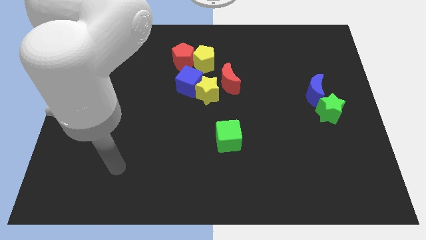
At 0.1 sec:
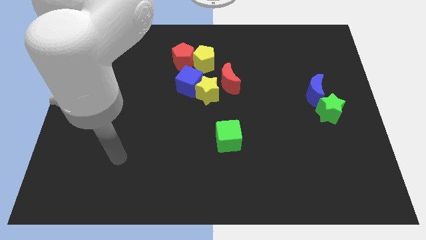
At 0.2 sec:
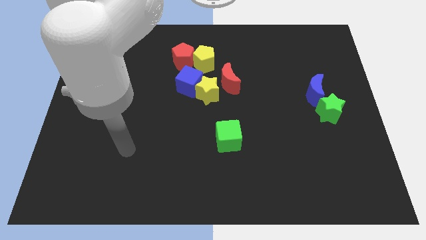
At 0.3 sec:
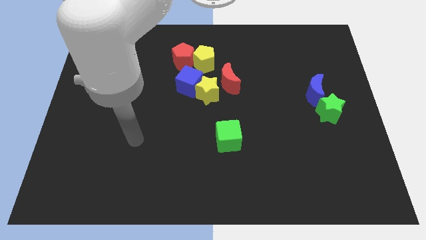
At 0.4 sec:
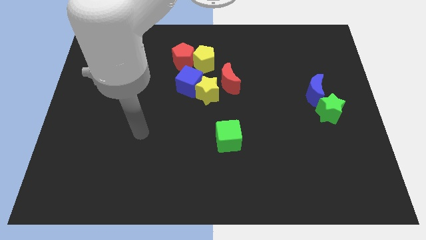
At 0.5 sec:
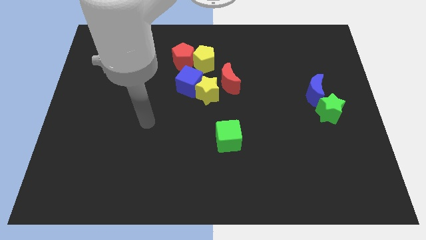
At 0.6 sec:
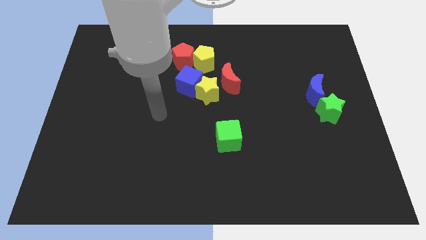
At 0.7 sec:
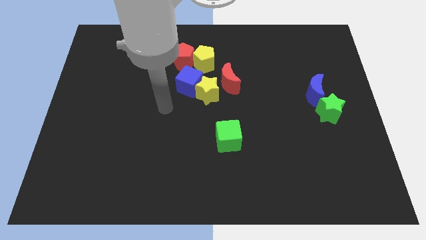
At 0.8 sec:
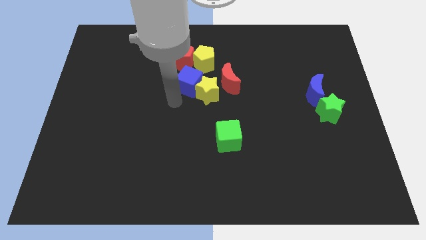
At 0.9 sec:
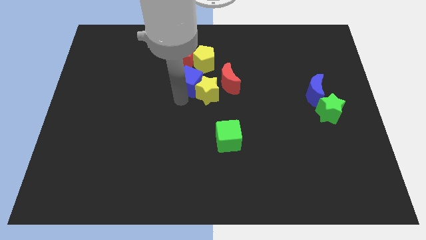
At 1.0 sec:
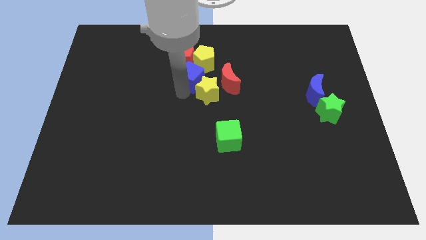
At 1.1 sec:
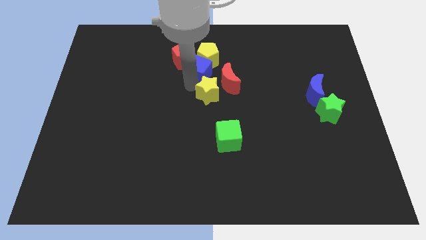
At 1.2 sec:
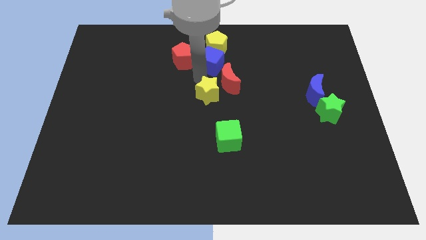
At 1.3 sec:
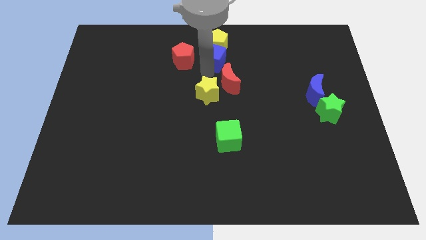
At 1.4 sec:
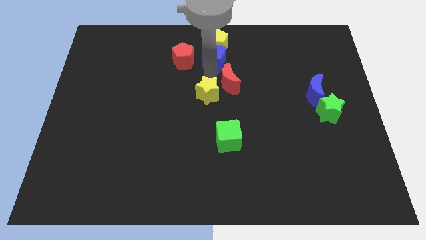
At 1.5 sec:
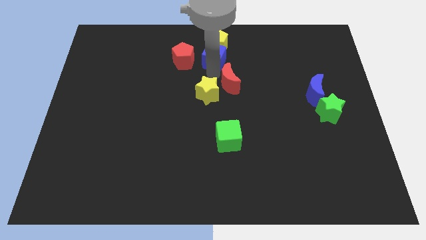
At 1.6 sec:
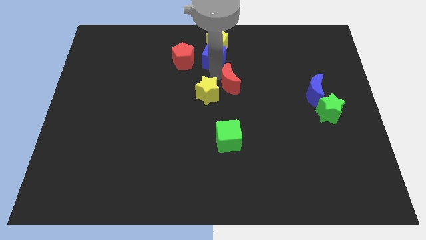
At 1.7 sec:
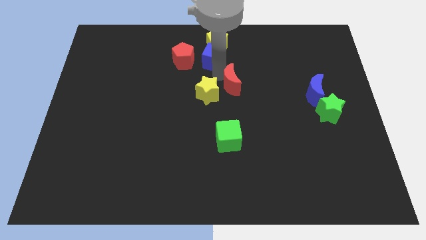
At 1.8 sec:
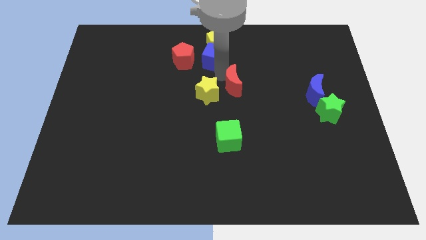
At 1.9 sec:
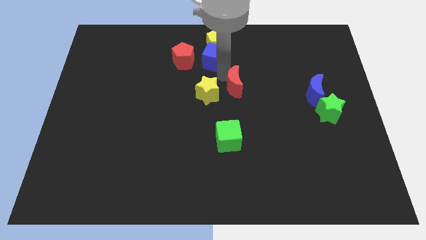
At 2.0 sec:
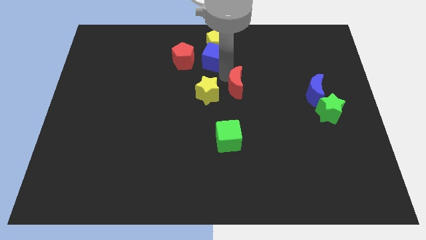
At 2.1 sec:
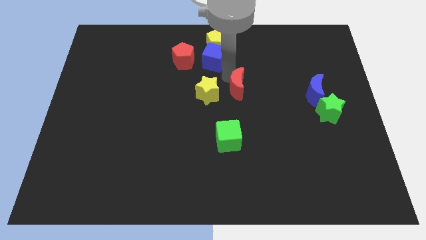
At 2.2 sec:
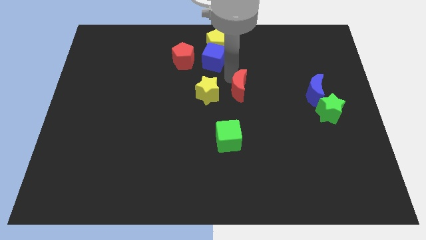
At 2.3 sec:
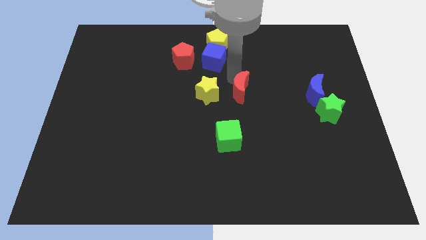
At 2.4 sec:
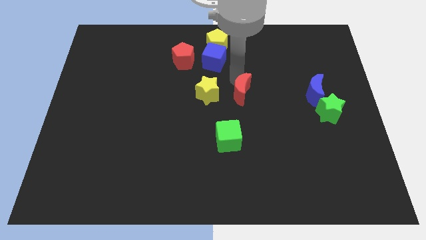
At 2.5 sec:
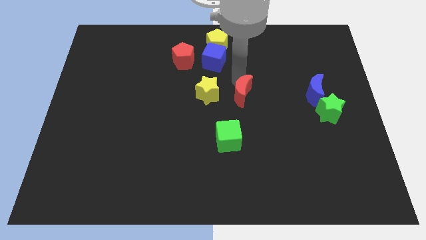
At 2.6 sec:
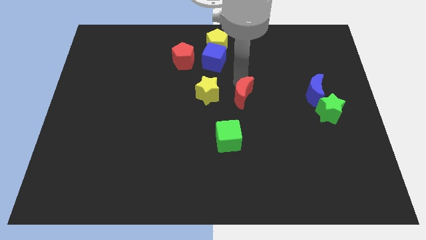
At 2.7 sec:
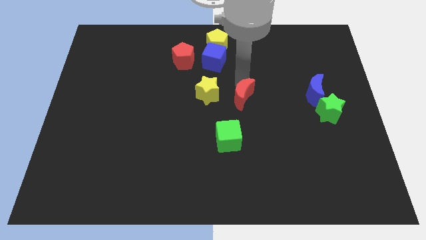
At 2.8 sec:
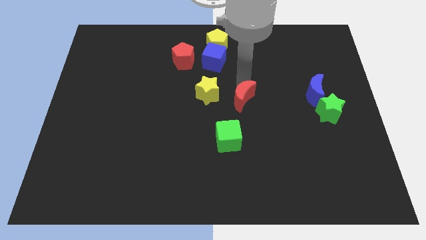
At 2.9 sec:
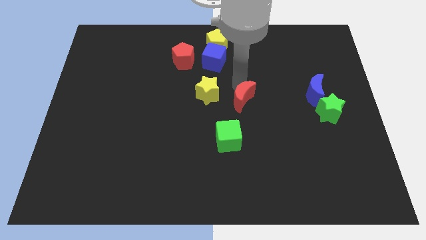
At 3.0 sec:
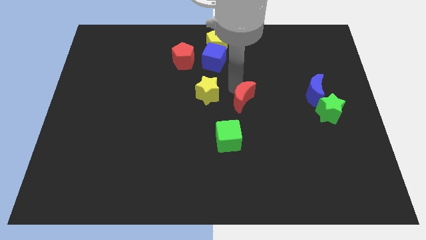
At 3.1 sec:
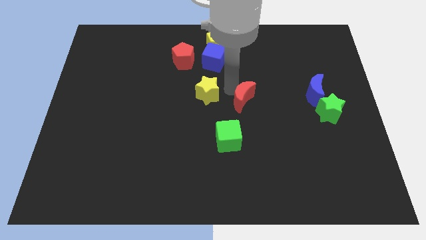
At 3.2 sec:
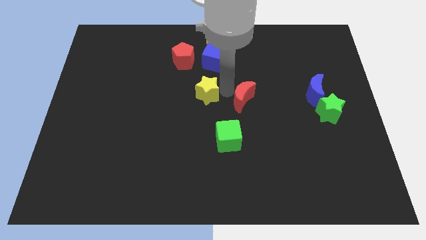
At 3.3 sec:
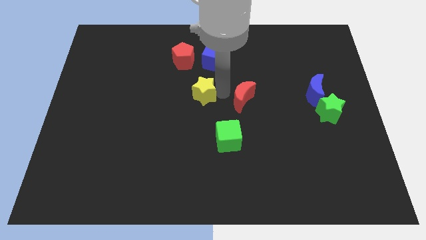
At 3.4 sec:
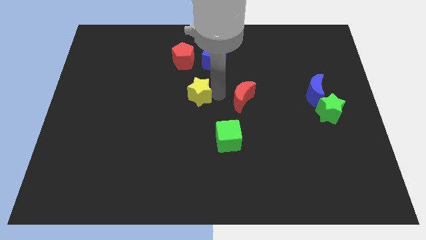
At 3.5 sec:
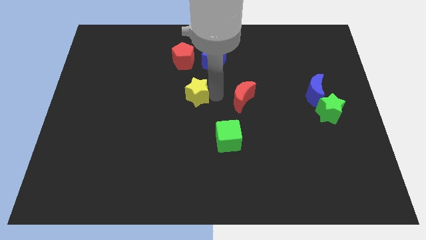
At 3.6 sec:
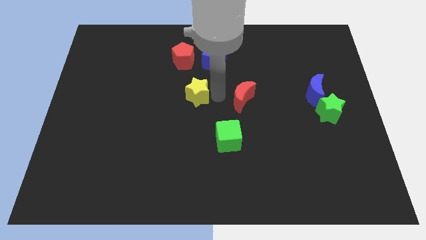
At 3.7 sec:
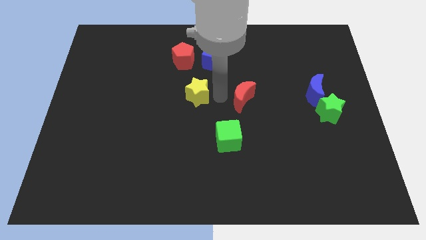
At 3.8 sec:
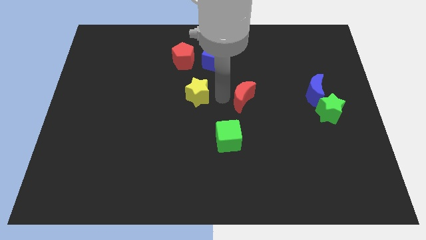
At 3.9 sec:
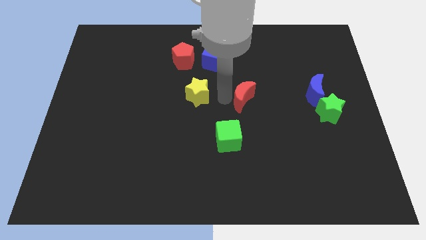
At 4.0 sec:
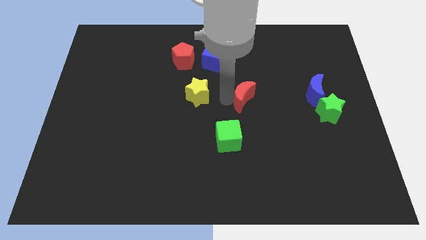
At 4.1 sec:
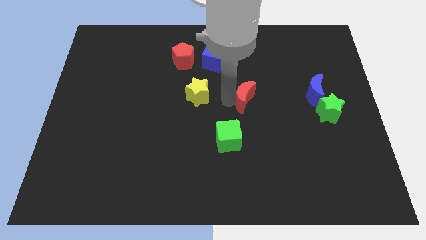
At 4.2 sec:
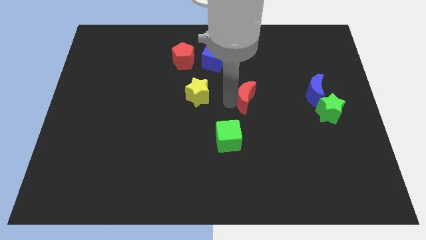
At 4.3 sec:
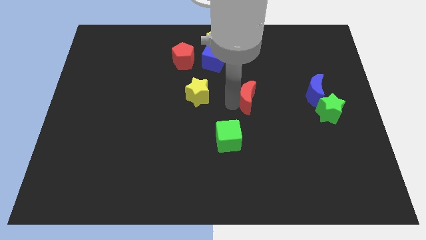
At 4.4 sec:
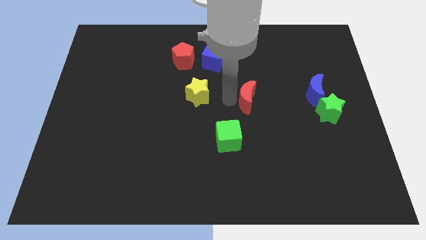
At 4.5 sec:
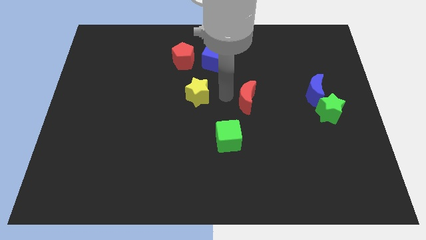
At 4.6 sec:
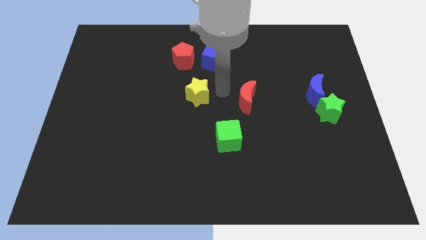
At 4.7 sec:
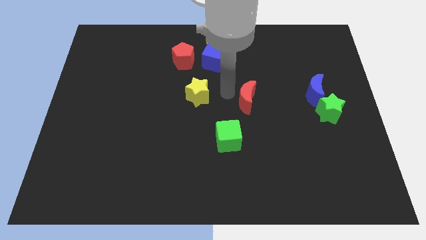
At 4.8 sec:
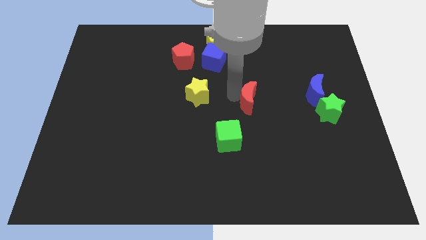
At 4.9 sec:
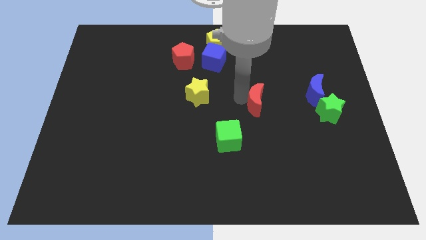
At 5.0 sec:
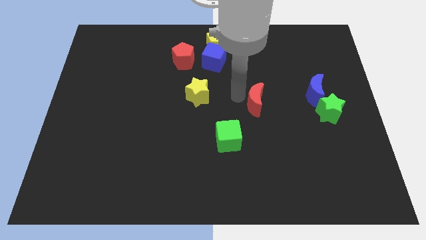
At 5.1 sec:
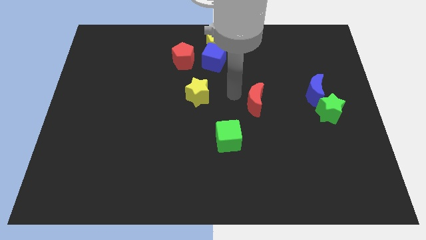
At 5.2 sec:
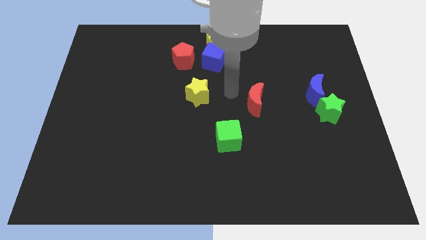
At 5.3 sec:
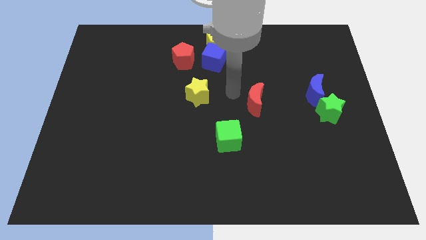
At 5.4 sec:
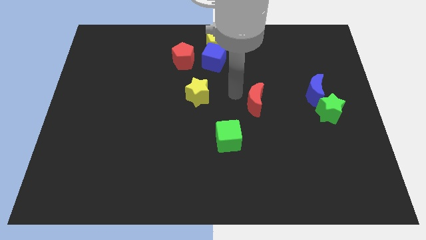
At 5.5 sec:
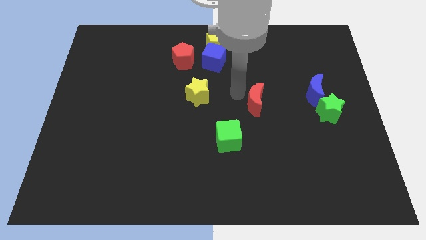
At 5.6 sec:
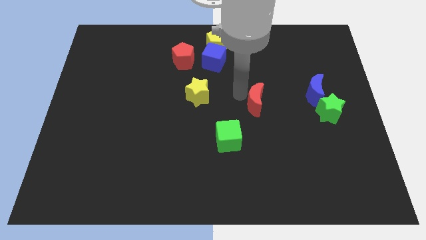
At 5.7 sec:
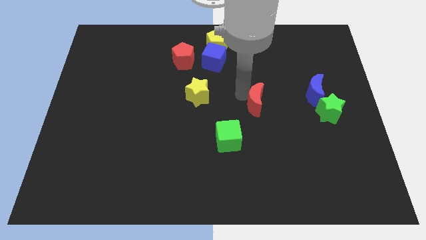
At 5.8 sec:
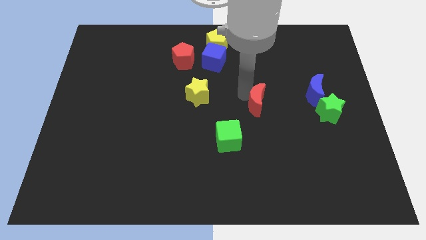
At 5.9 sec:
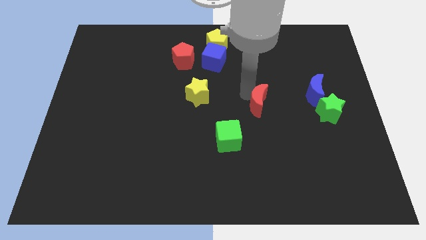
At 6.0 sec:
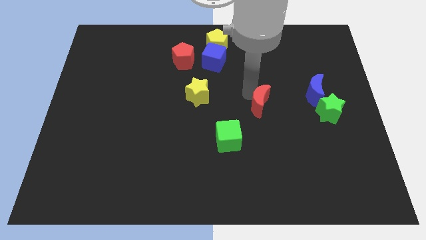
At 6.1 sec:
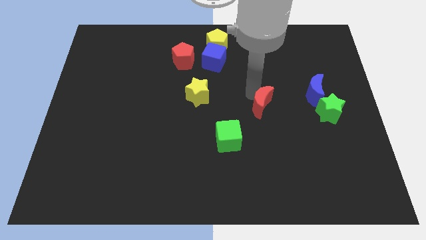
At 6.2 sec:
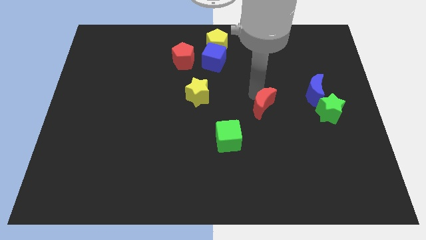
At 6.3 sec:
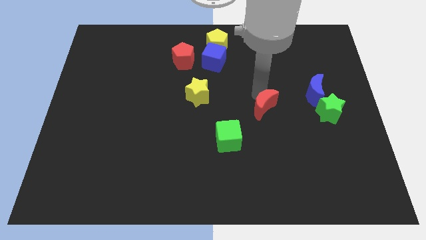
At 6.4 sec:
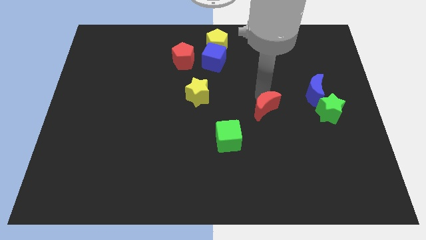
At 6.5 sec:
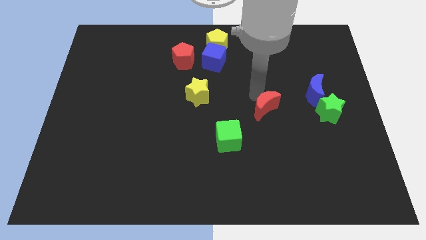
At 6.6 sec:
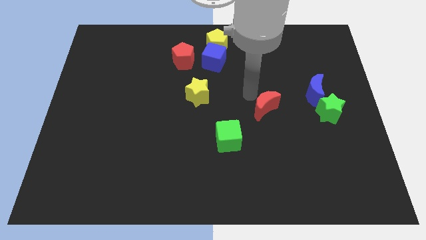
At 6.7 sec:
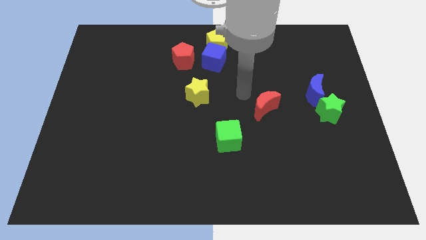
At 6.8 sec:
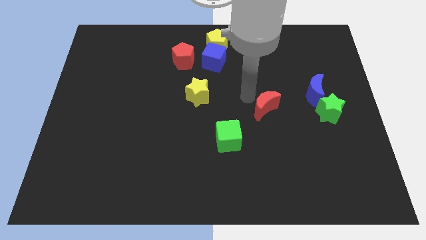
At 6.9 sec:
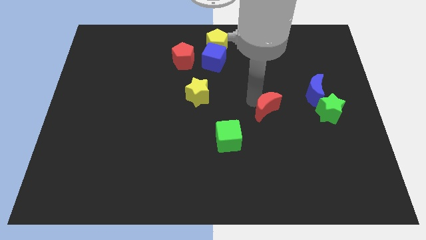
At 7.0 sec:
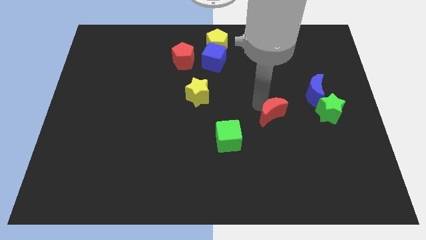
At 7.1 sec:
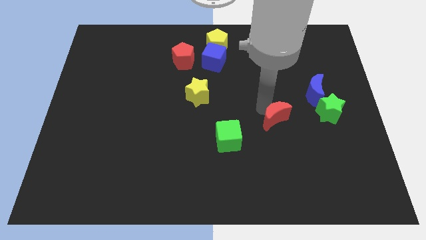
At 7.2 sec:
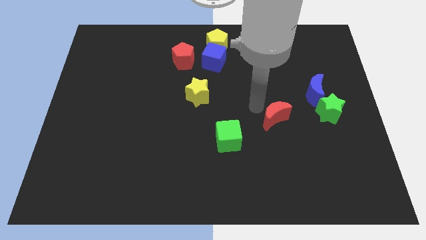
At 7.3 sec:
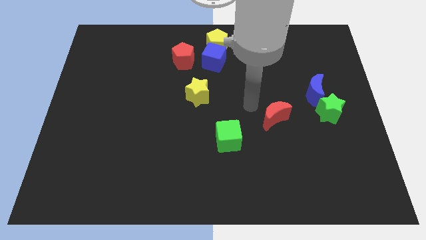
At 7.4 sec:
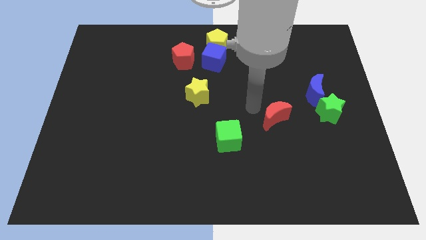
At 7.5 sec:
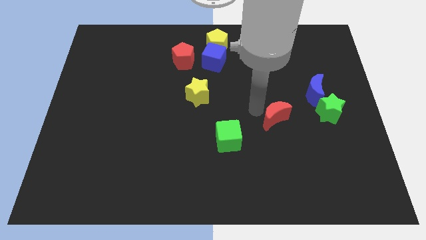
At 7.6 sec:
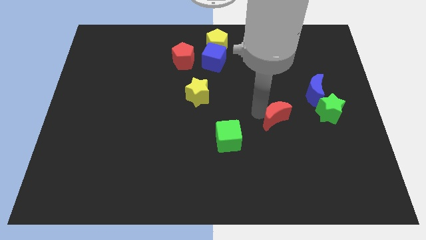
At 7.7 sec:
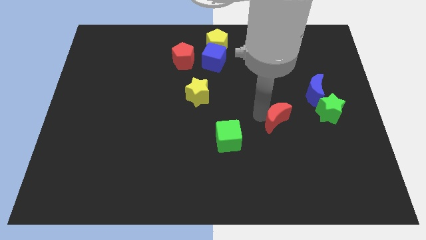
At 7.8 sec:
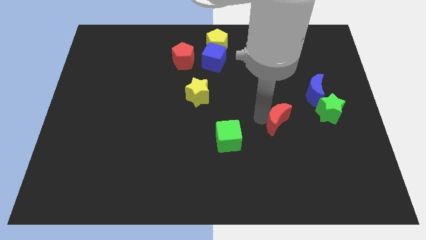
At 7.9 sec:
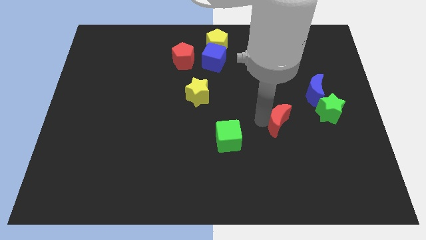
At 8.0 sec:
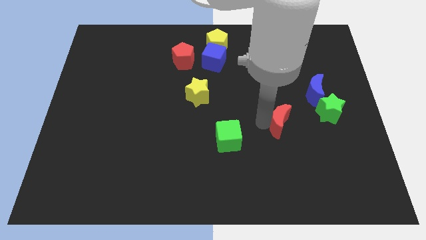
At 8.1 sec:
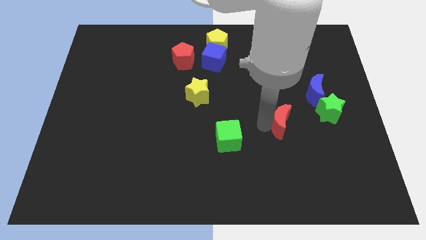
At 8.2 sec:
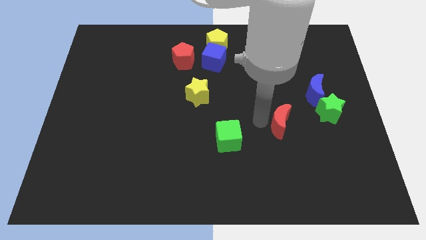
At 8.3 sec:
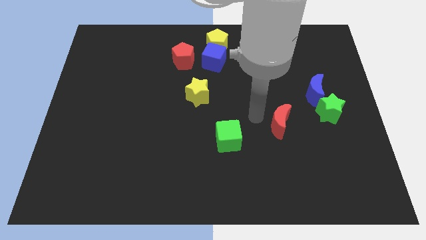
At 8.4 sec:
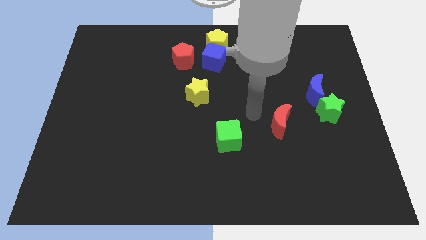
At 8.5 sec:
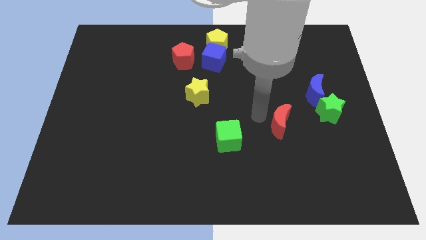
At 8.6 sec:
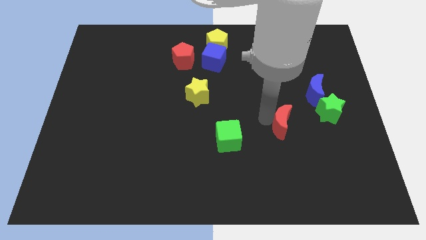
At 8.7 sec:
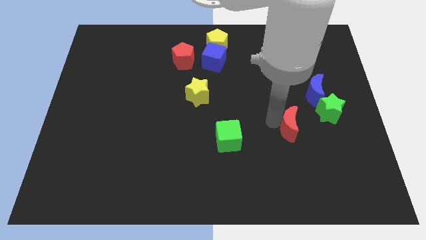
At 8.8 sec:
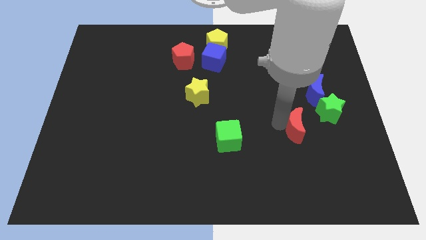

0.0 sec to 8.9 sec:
slide the red moon downwards and then to the right
